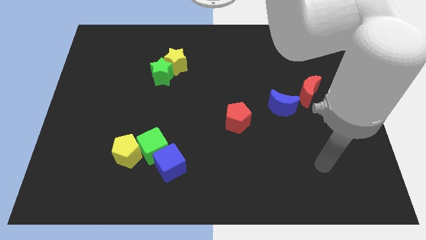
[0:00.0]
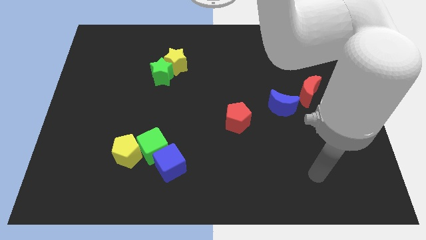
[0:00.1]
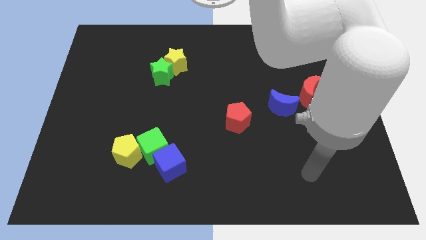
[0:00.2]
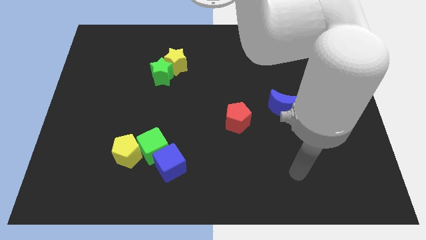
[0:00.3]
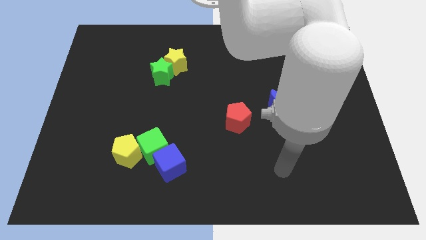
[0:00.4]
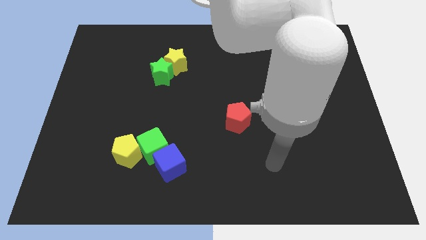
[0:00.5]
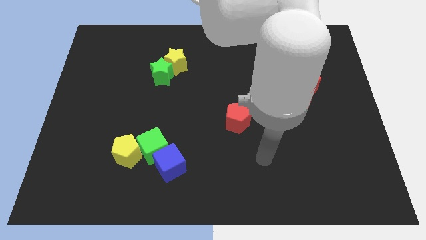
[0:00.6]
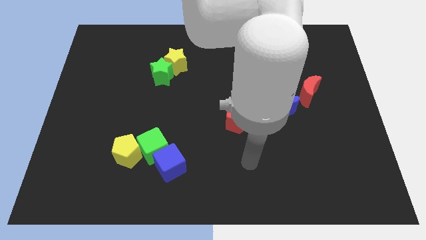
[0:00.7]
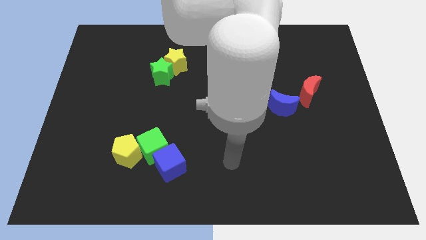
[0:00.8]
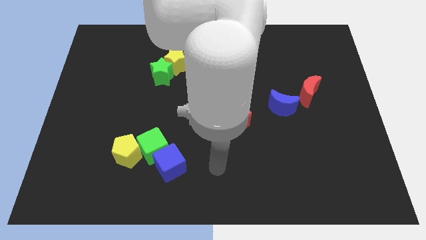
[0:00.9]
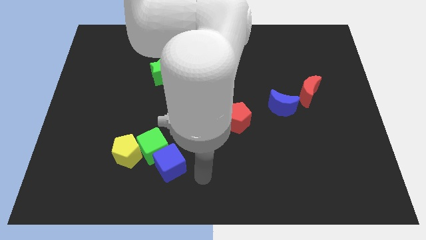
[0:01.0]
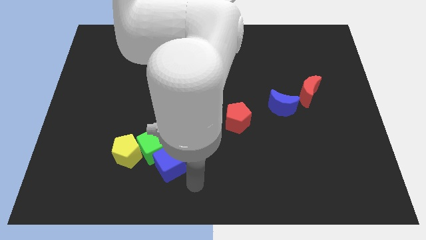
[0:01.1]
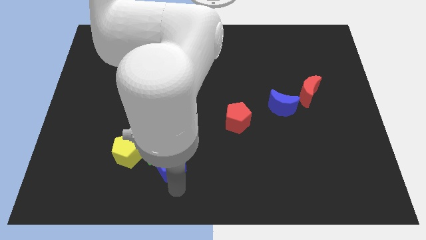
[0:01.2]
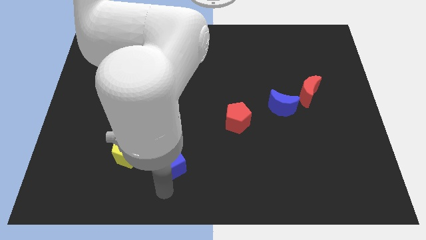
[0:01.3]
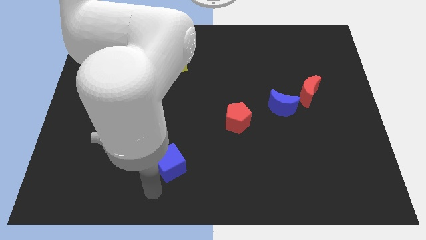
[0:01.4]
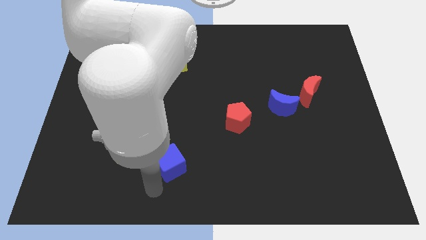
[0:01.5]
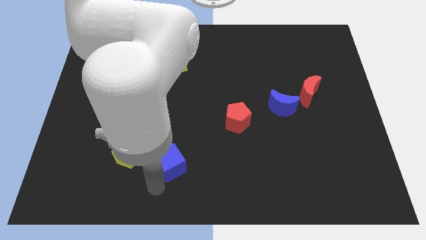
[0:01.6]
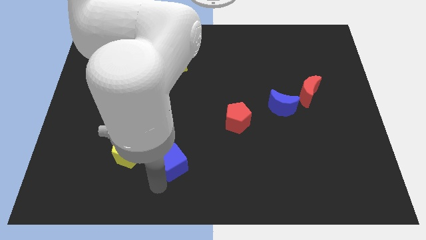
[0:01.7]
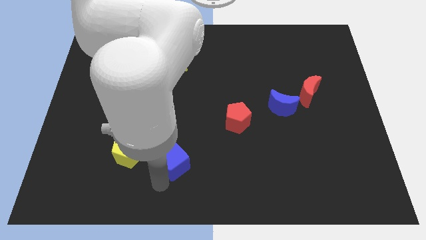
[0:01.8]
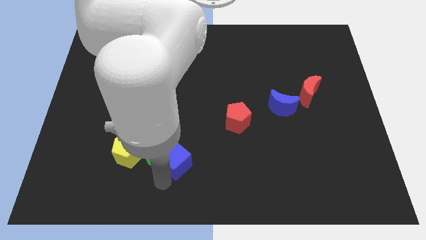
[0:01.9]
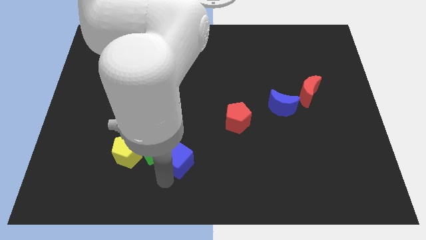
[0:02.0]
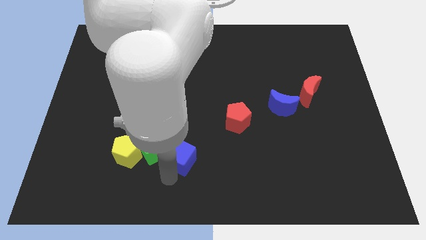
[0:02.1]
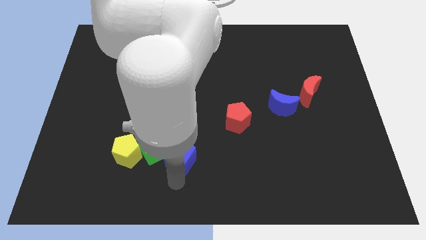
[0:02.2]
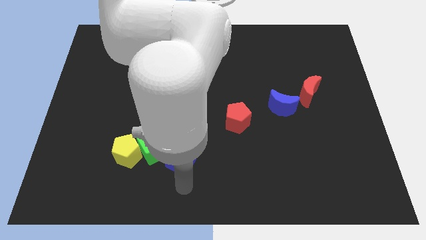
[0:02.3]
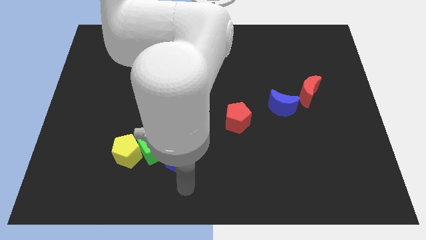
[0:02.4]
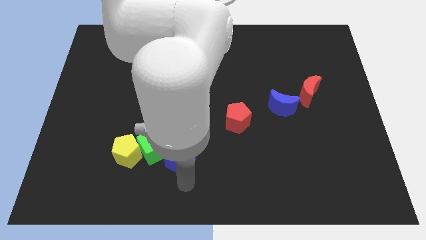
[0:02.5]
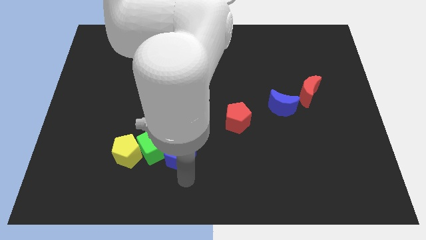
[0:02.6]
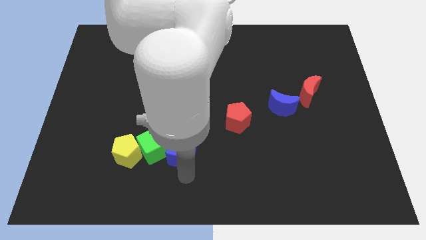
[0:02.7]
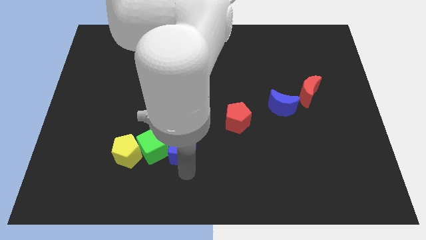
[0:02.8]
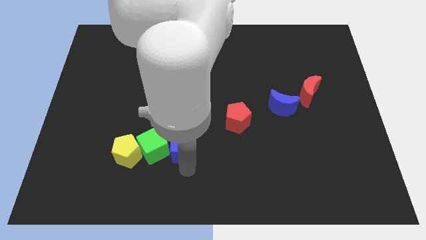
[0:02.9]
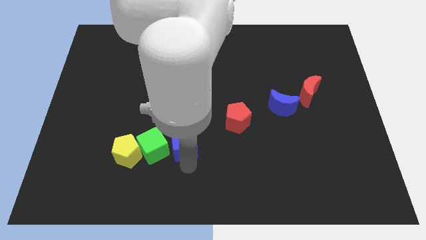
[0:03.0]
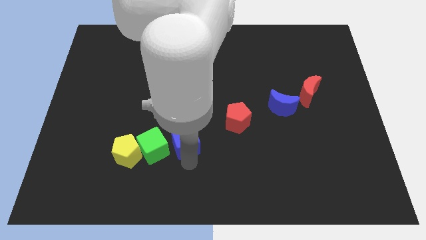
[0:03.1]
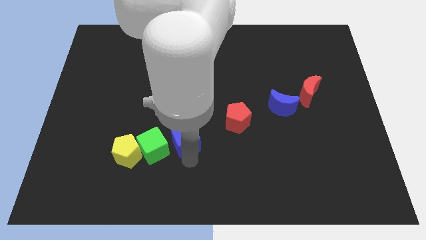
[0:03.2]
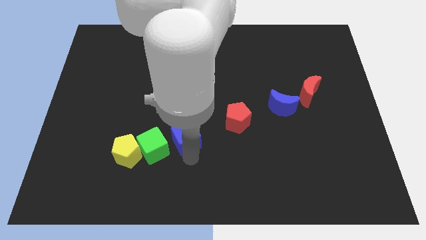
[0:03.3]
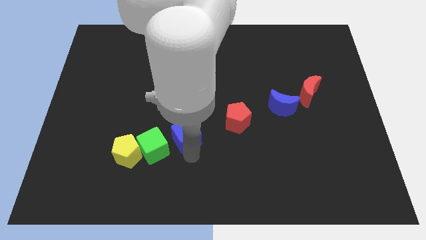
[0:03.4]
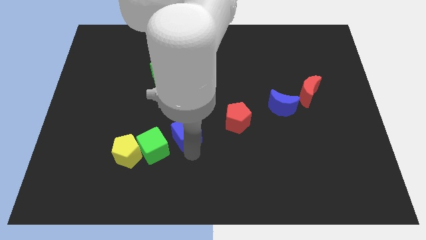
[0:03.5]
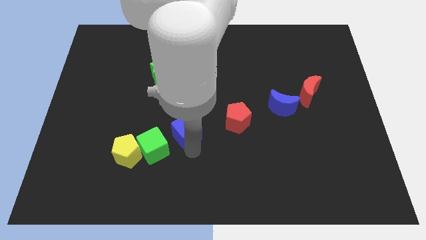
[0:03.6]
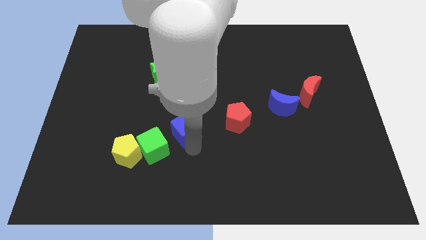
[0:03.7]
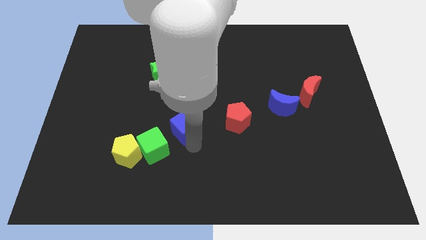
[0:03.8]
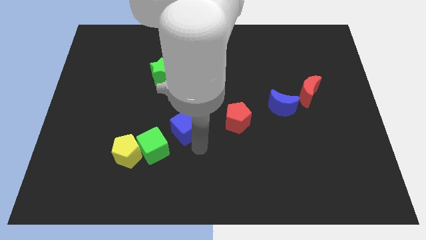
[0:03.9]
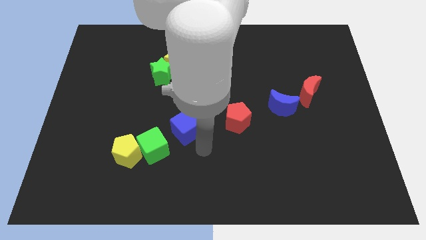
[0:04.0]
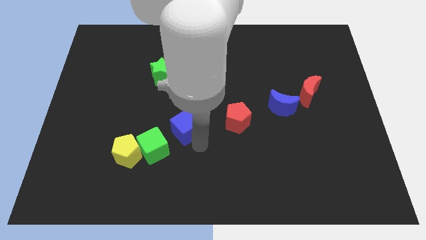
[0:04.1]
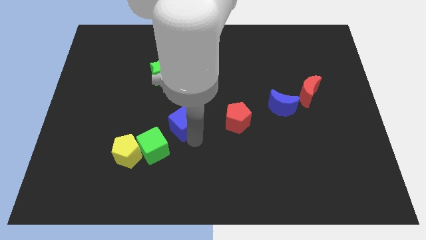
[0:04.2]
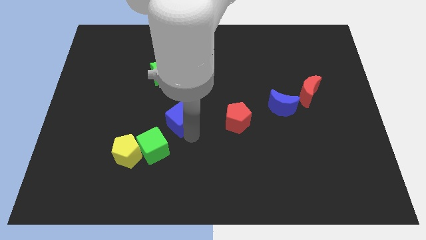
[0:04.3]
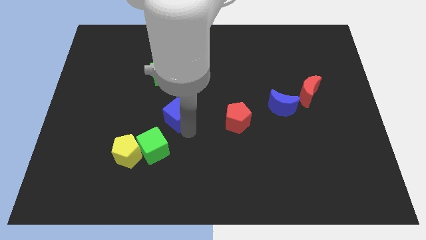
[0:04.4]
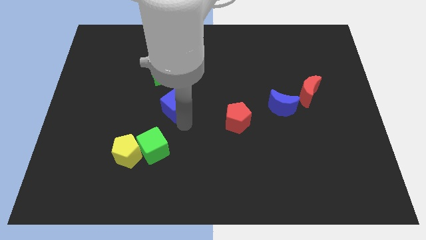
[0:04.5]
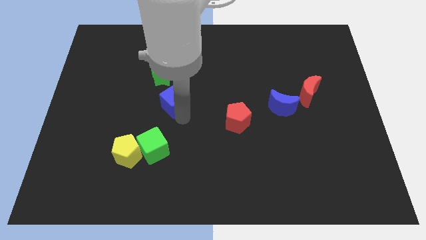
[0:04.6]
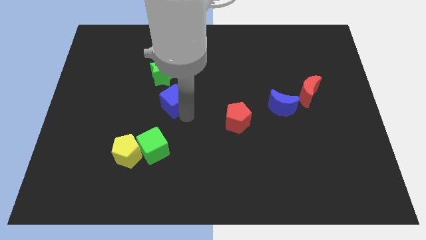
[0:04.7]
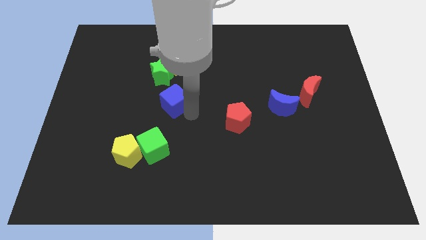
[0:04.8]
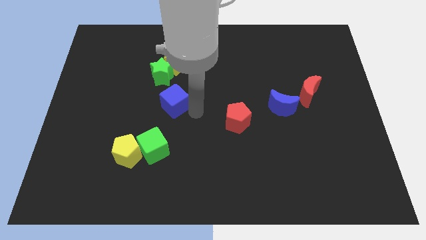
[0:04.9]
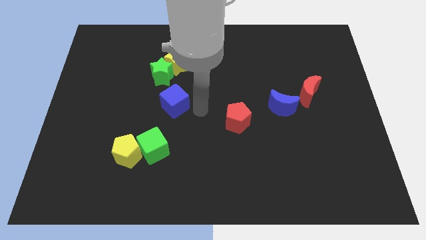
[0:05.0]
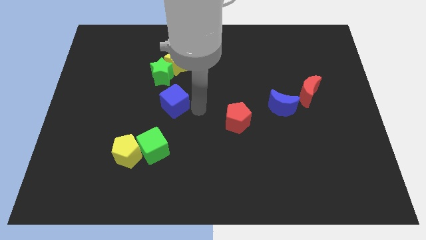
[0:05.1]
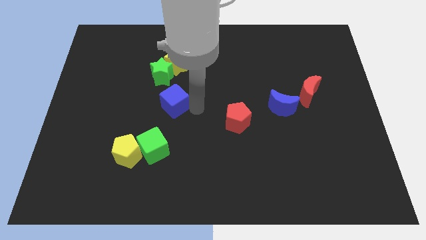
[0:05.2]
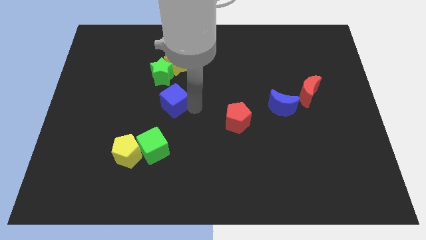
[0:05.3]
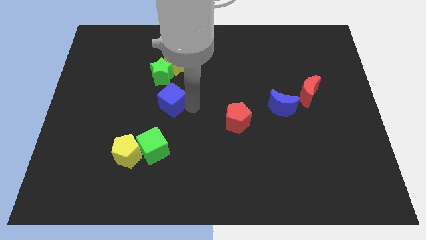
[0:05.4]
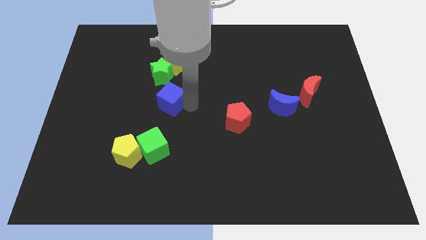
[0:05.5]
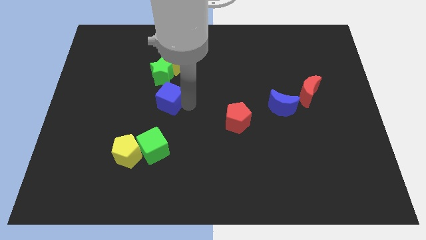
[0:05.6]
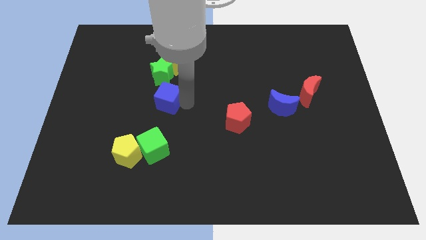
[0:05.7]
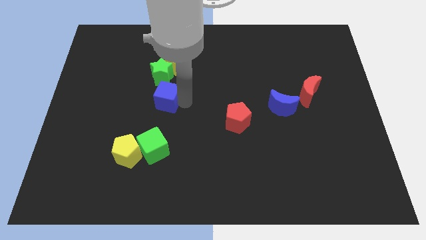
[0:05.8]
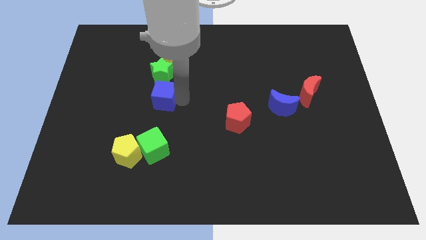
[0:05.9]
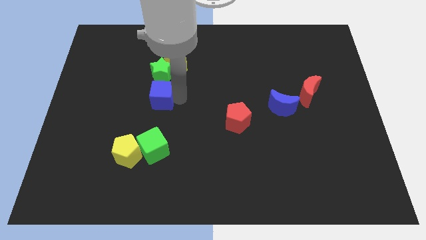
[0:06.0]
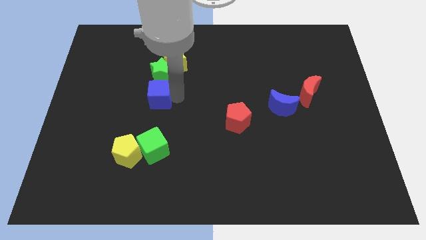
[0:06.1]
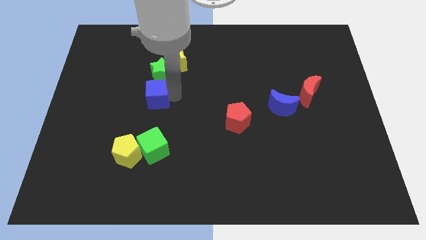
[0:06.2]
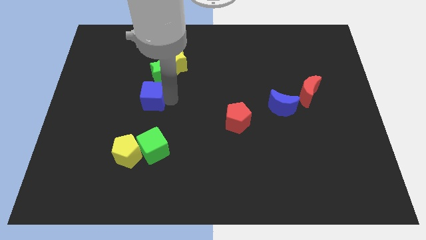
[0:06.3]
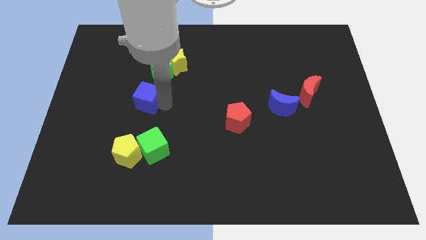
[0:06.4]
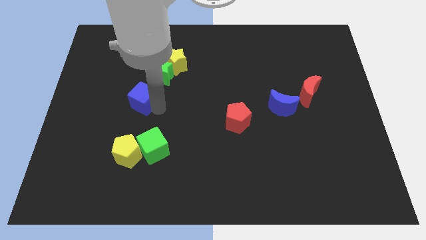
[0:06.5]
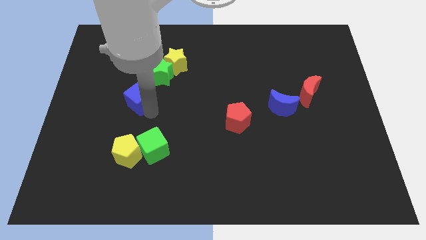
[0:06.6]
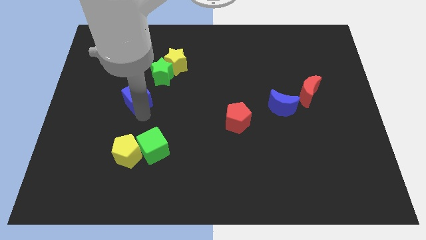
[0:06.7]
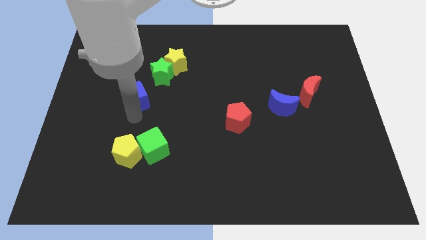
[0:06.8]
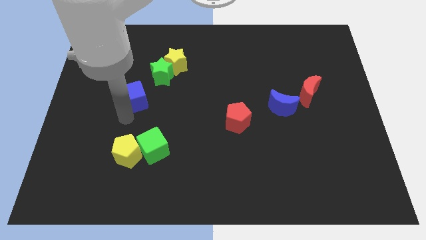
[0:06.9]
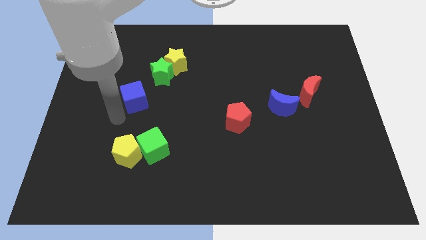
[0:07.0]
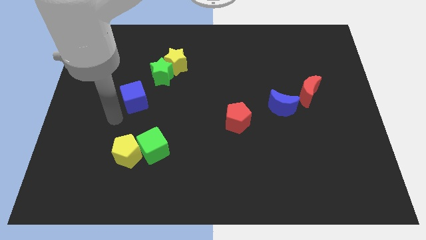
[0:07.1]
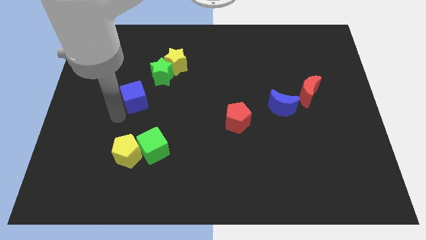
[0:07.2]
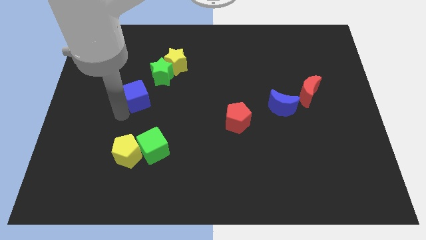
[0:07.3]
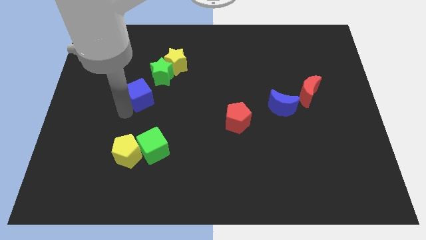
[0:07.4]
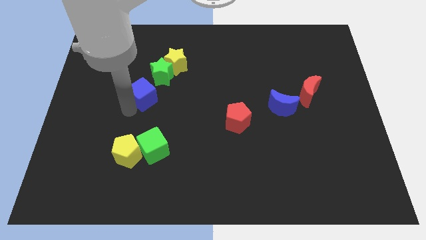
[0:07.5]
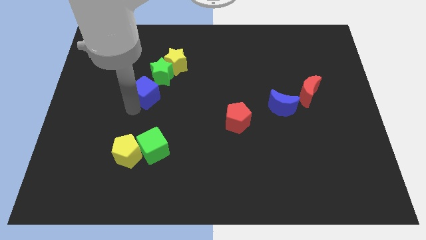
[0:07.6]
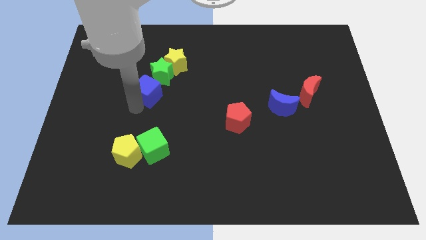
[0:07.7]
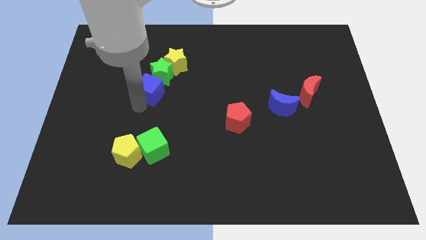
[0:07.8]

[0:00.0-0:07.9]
move the blue cube close to the green star
